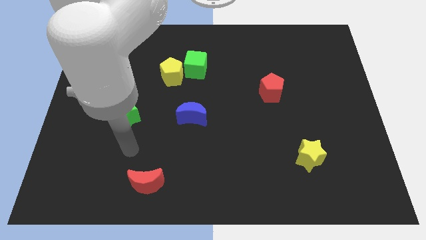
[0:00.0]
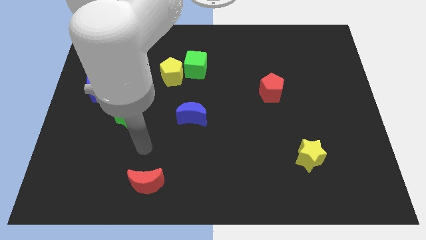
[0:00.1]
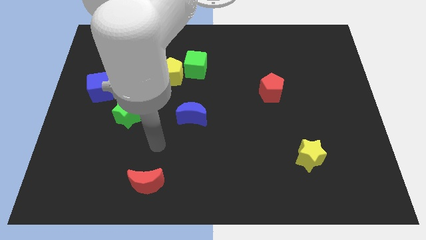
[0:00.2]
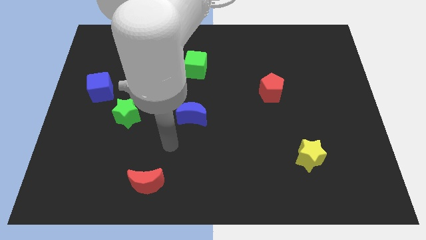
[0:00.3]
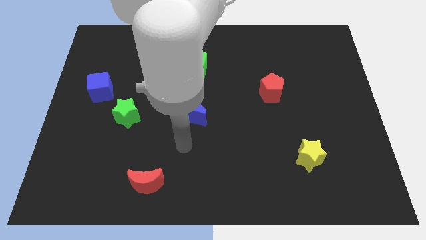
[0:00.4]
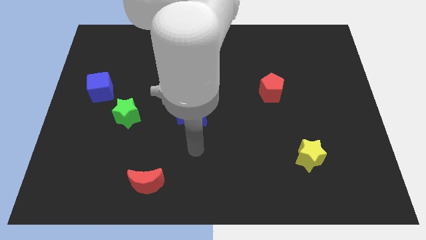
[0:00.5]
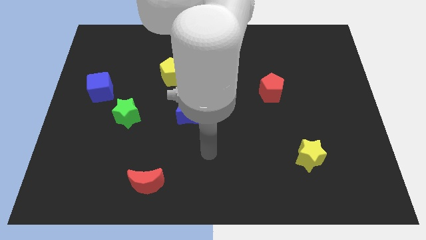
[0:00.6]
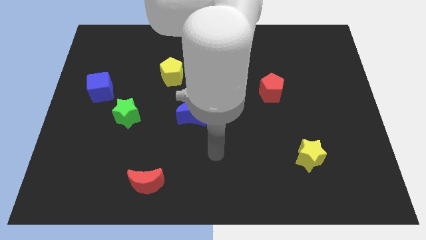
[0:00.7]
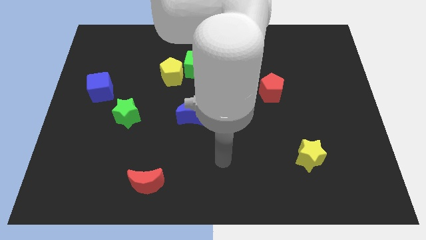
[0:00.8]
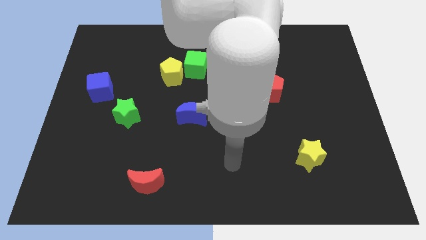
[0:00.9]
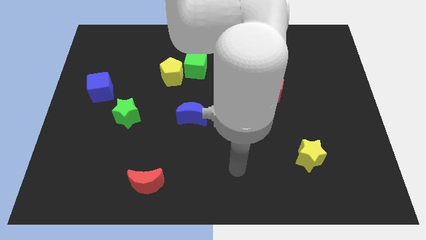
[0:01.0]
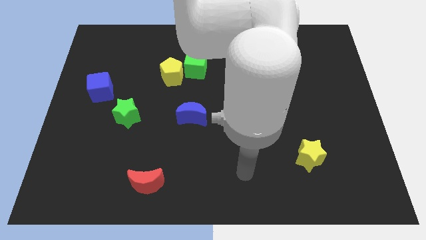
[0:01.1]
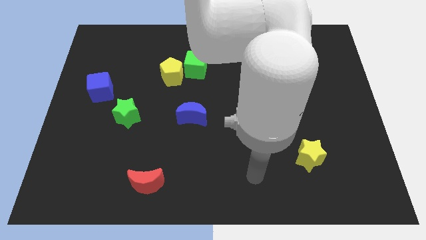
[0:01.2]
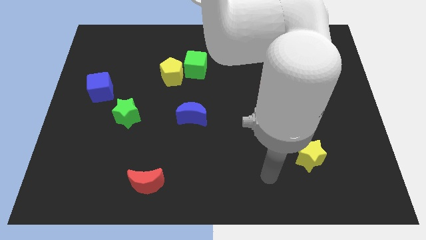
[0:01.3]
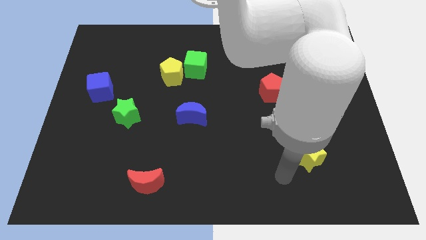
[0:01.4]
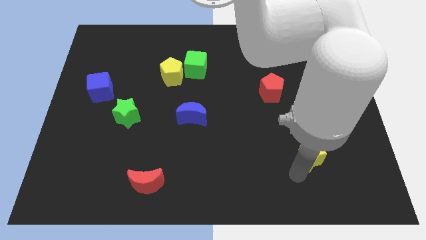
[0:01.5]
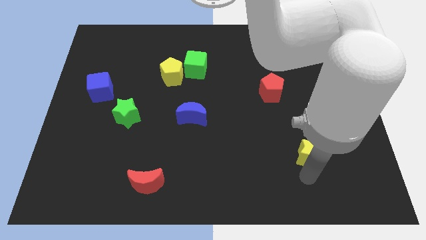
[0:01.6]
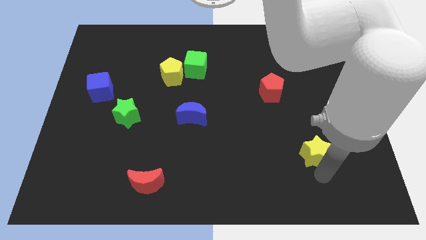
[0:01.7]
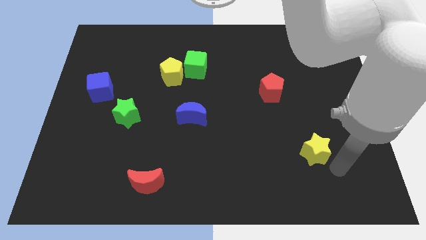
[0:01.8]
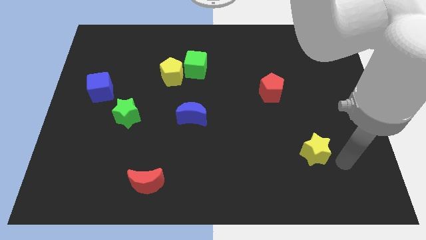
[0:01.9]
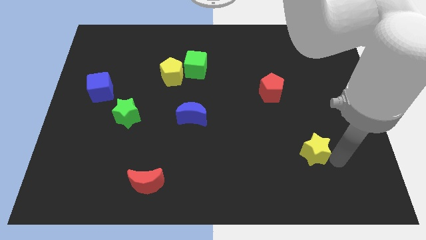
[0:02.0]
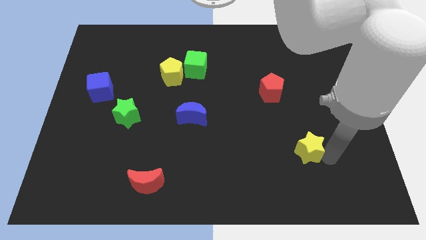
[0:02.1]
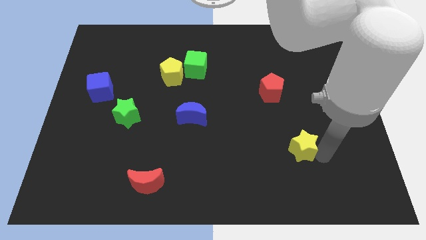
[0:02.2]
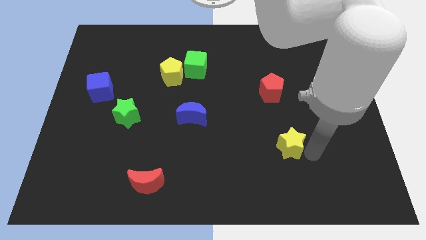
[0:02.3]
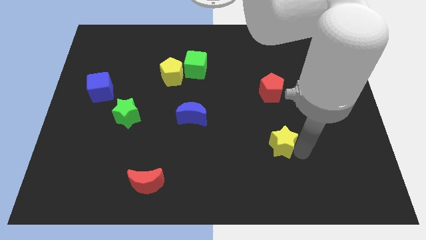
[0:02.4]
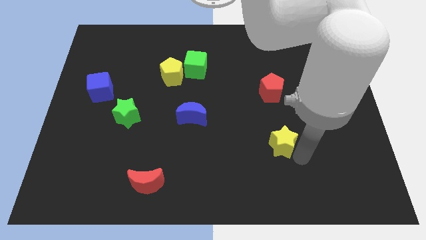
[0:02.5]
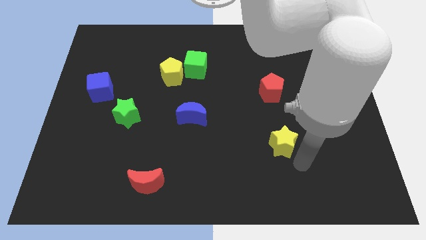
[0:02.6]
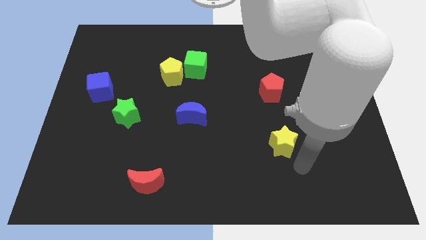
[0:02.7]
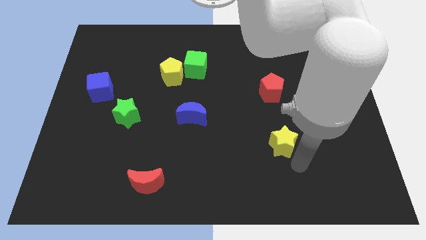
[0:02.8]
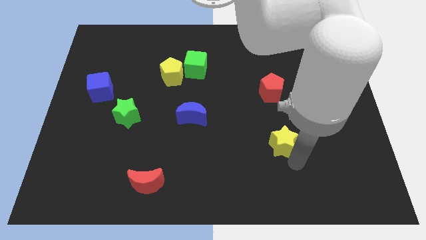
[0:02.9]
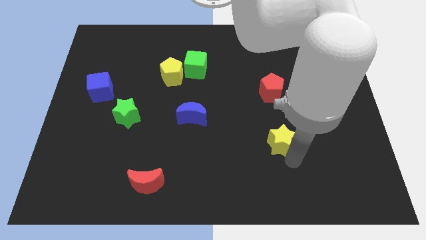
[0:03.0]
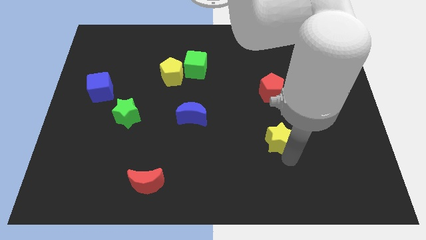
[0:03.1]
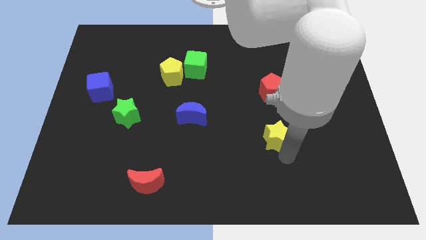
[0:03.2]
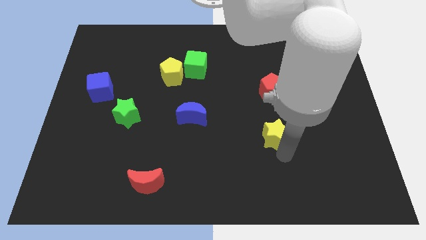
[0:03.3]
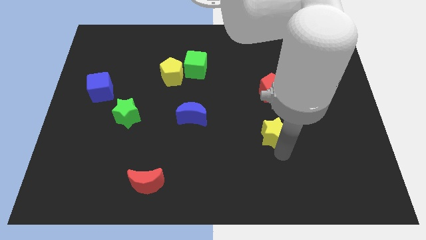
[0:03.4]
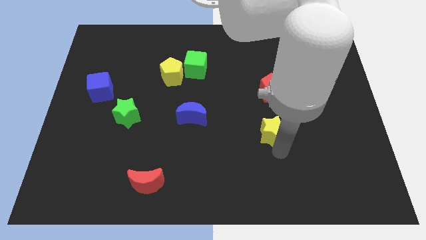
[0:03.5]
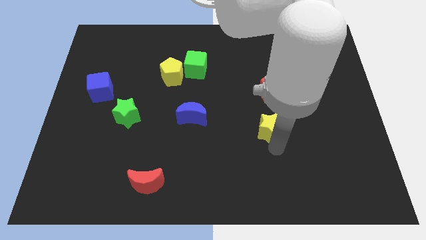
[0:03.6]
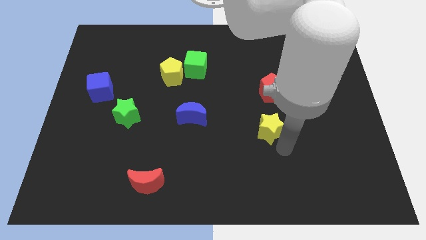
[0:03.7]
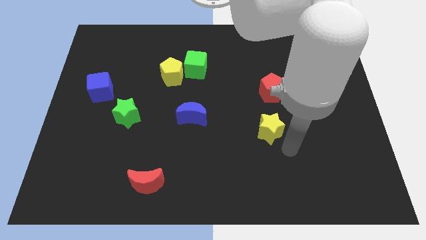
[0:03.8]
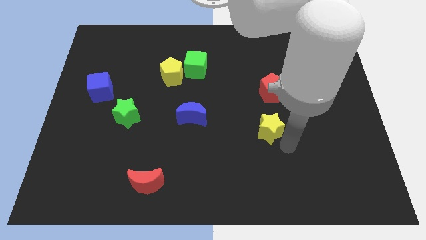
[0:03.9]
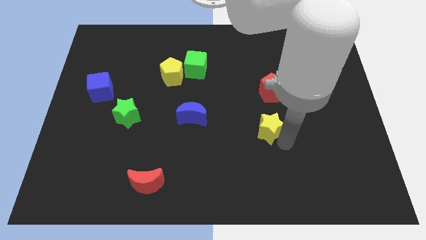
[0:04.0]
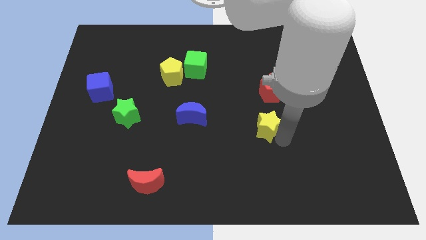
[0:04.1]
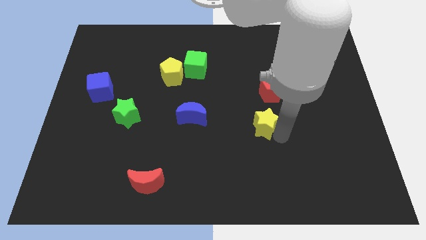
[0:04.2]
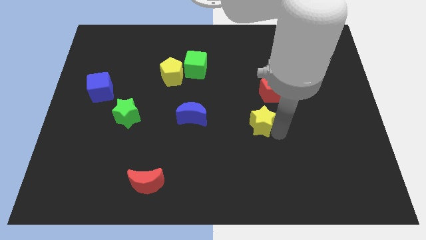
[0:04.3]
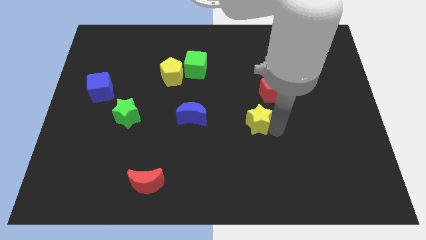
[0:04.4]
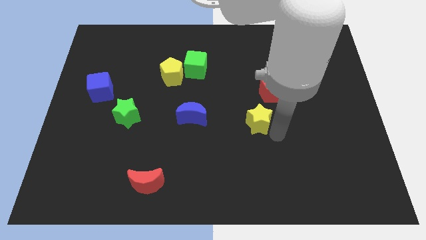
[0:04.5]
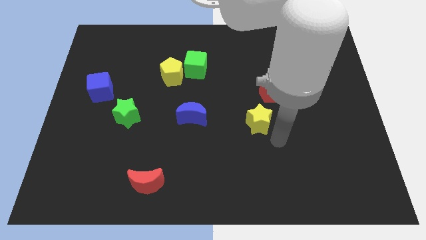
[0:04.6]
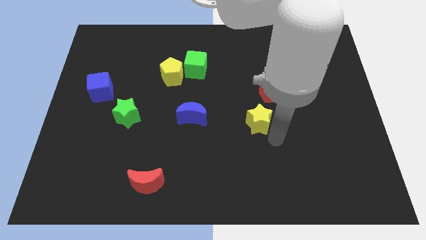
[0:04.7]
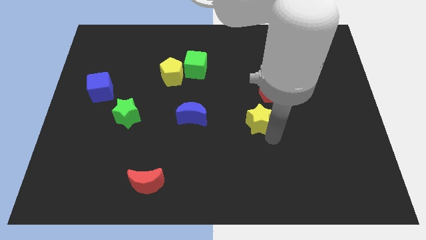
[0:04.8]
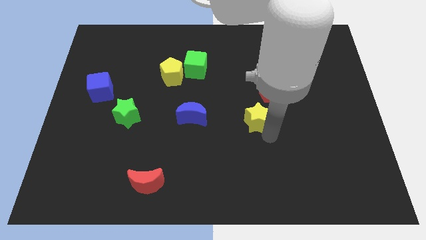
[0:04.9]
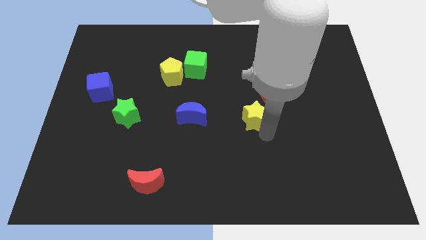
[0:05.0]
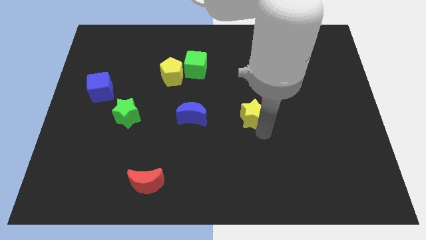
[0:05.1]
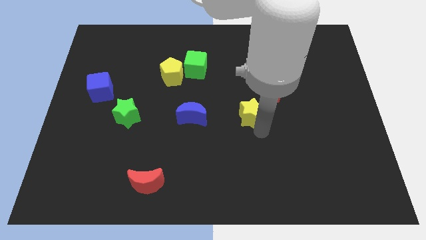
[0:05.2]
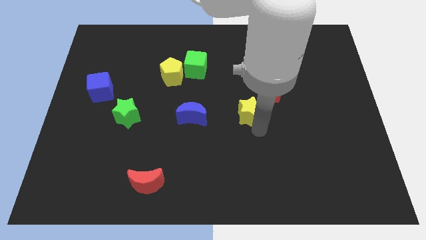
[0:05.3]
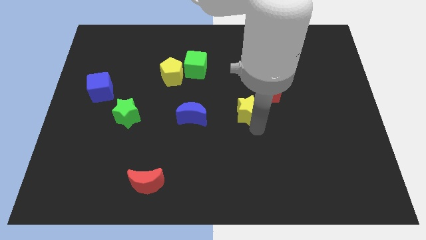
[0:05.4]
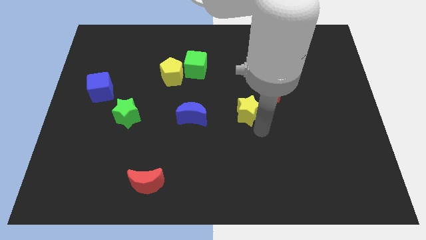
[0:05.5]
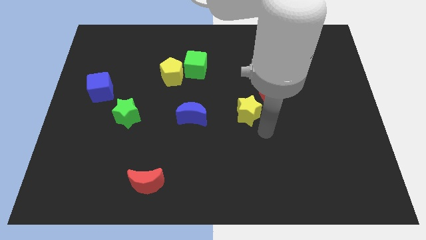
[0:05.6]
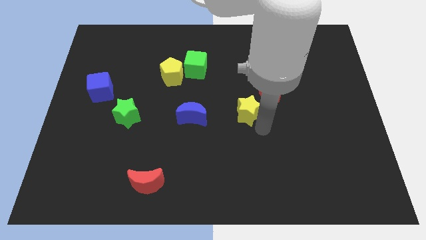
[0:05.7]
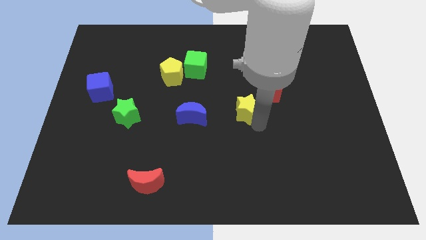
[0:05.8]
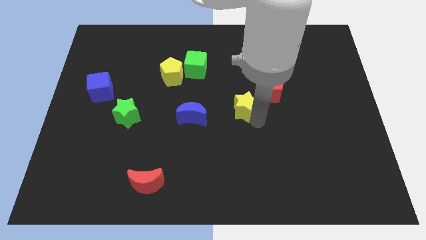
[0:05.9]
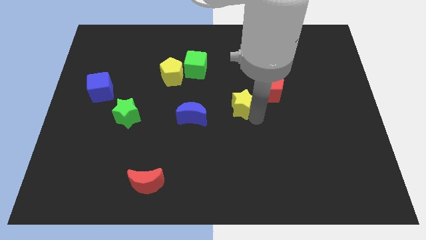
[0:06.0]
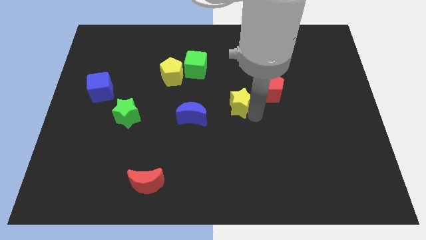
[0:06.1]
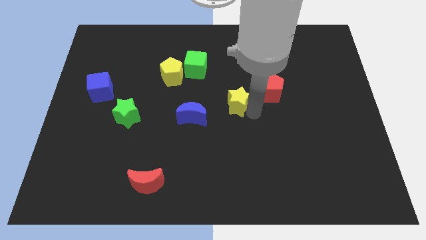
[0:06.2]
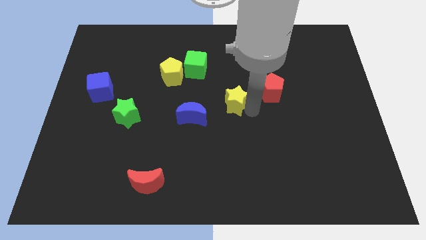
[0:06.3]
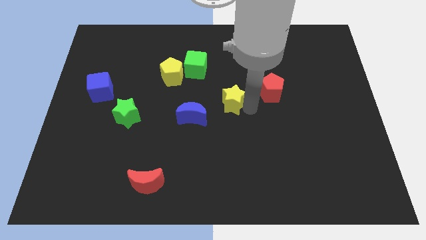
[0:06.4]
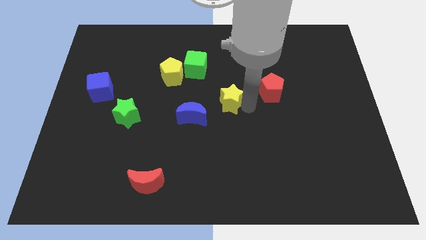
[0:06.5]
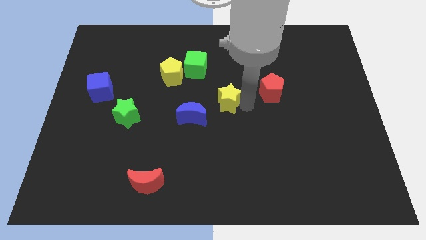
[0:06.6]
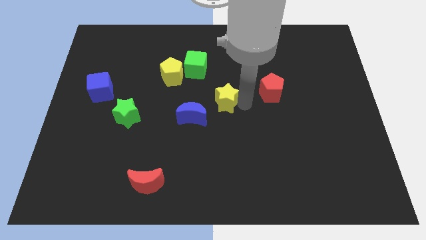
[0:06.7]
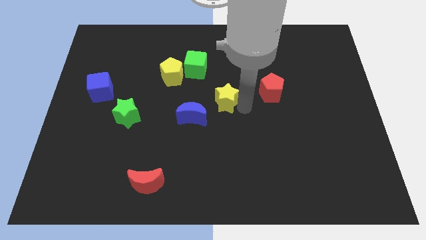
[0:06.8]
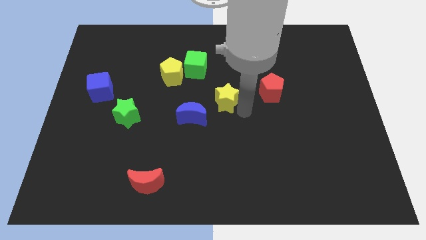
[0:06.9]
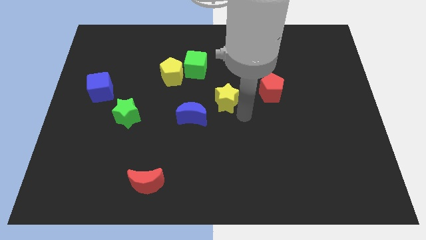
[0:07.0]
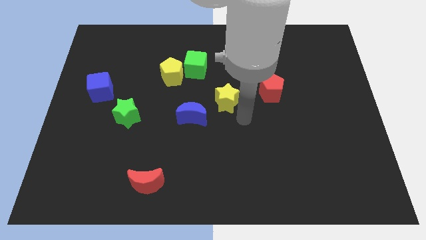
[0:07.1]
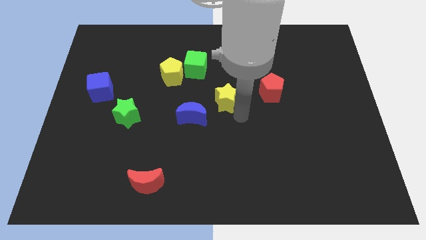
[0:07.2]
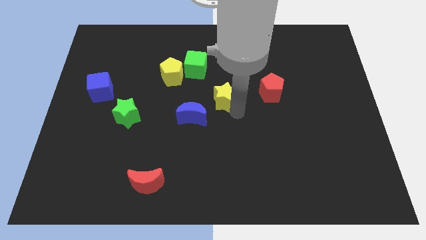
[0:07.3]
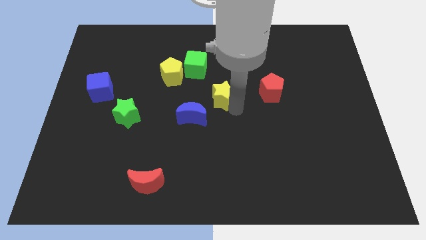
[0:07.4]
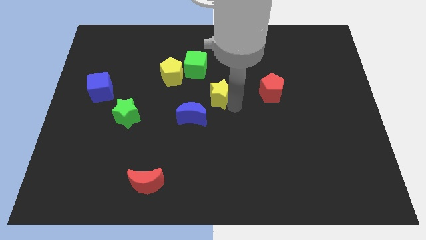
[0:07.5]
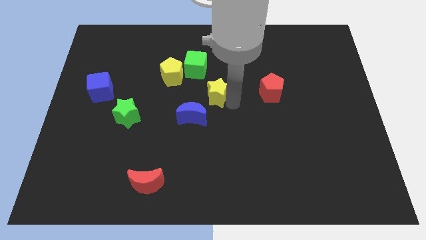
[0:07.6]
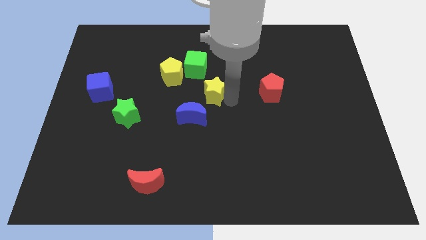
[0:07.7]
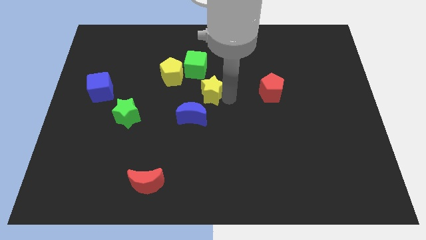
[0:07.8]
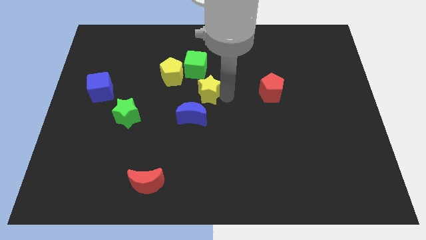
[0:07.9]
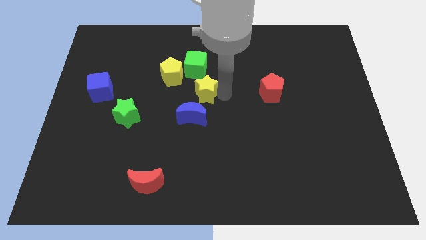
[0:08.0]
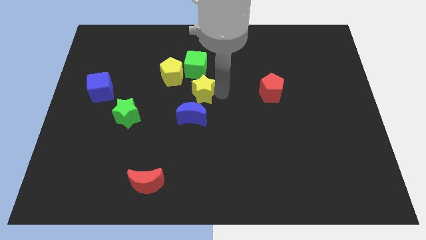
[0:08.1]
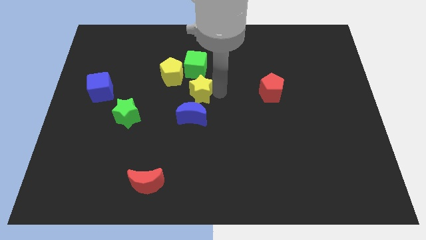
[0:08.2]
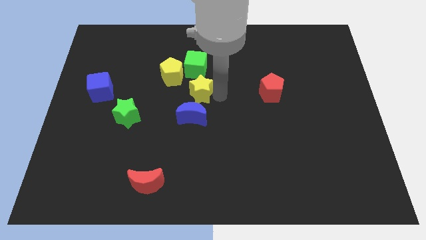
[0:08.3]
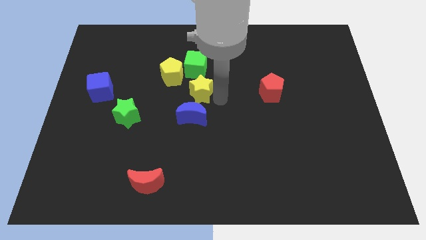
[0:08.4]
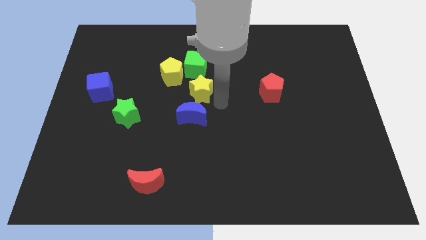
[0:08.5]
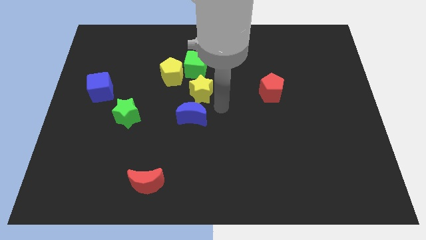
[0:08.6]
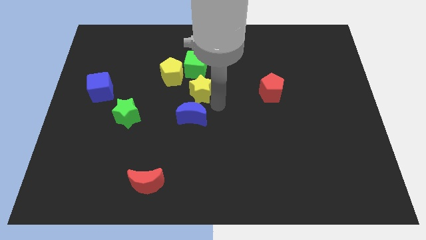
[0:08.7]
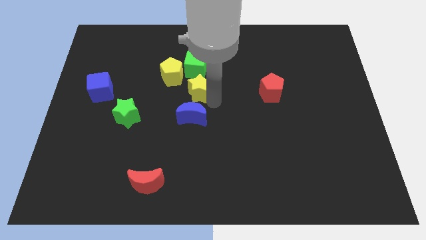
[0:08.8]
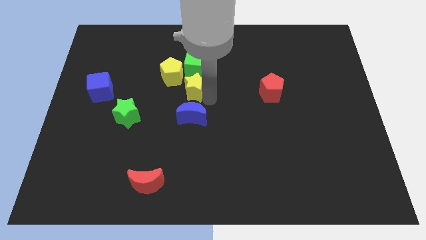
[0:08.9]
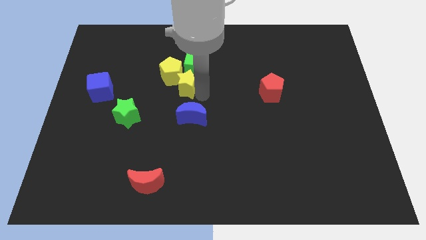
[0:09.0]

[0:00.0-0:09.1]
push the yellow star close to the yellow pentagon
